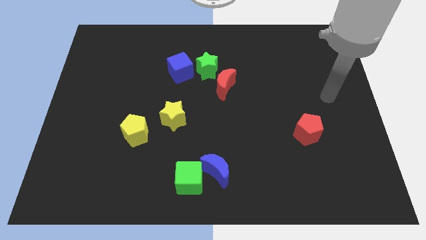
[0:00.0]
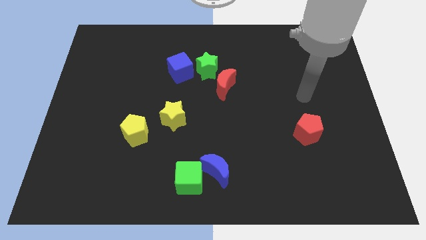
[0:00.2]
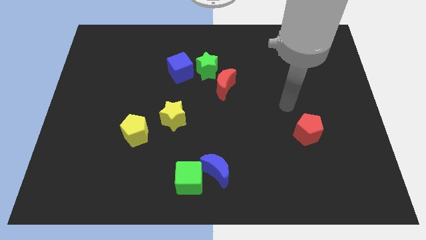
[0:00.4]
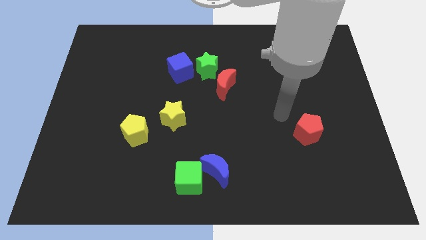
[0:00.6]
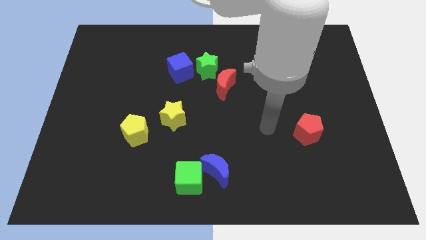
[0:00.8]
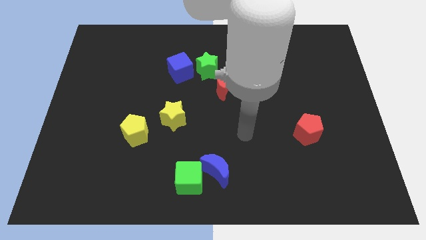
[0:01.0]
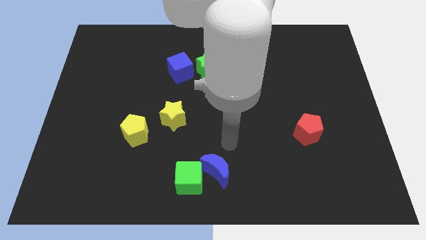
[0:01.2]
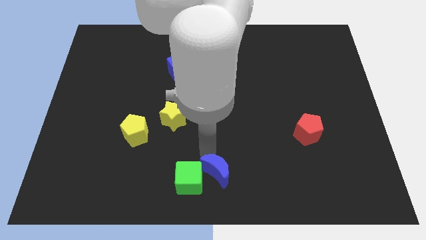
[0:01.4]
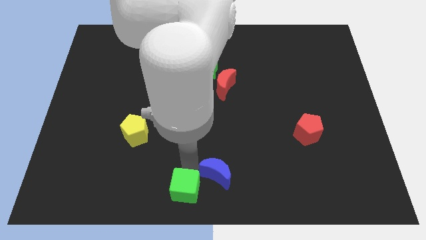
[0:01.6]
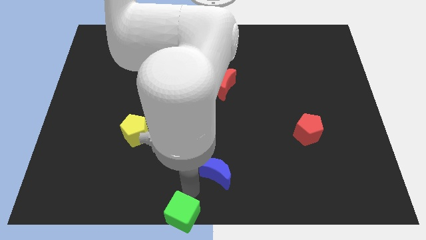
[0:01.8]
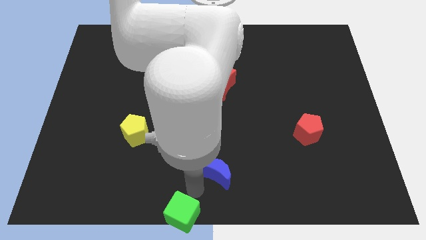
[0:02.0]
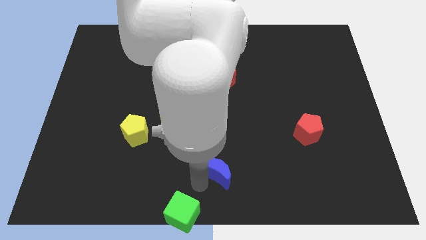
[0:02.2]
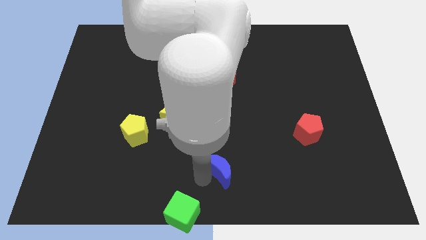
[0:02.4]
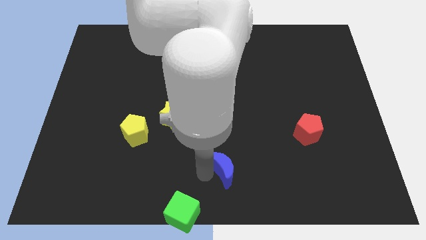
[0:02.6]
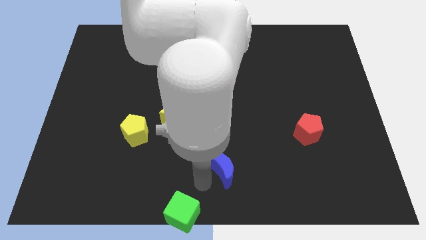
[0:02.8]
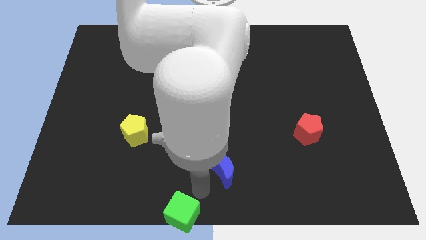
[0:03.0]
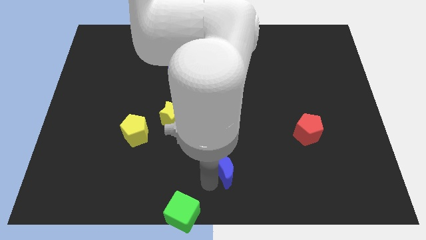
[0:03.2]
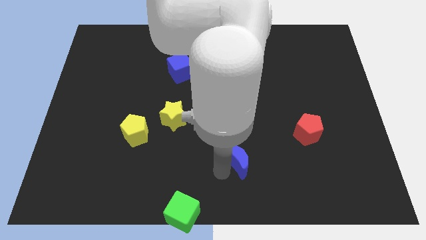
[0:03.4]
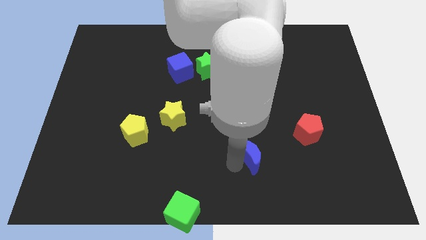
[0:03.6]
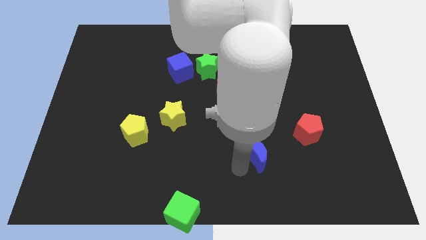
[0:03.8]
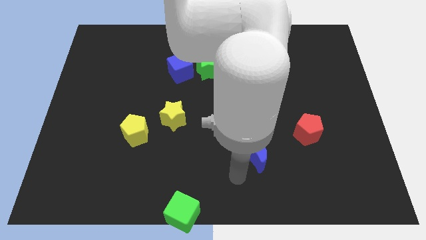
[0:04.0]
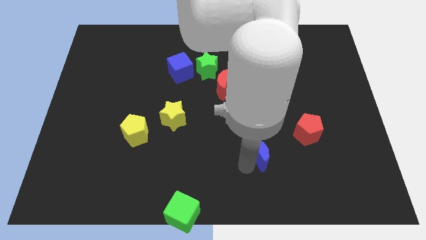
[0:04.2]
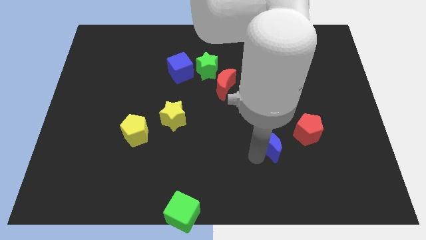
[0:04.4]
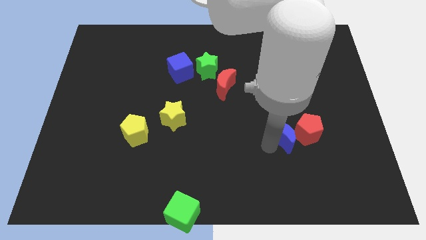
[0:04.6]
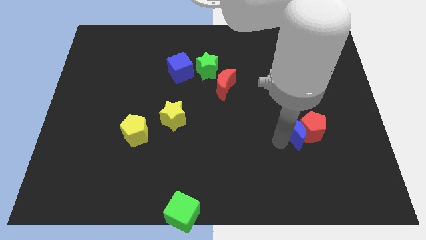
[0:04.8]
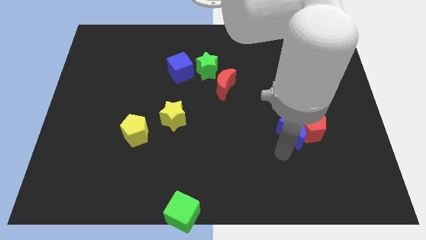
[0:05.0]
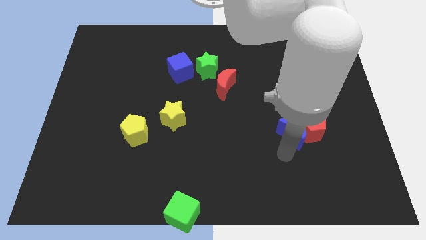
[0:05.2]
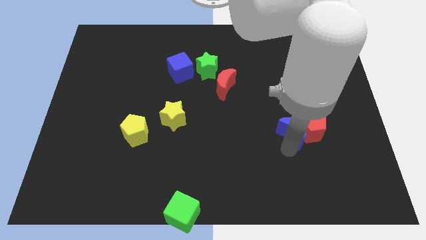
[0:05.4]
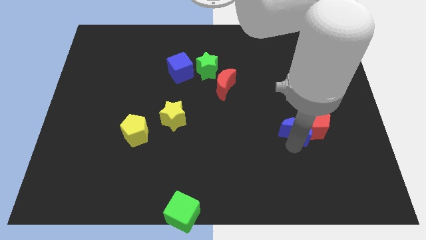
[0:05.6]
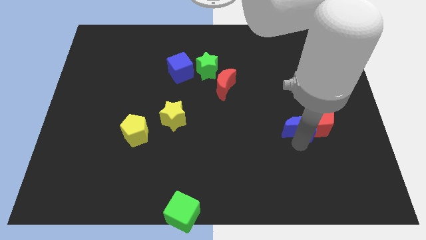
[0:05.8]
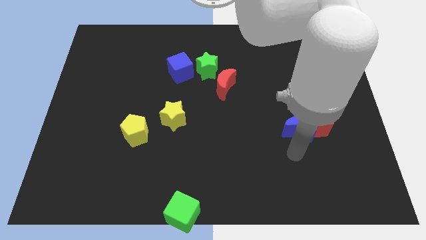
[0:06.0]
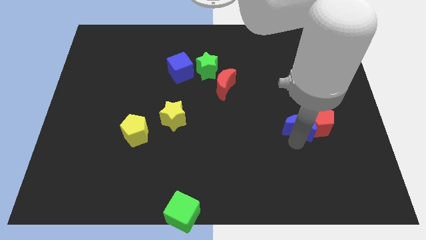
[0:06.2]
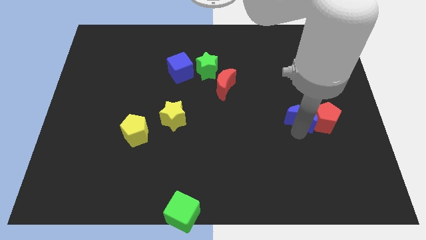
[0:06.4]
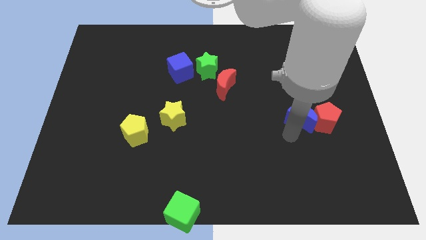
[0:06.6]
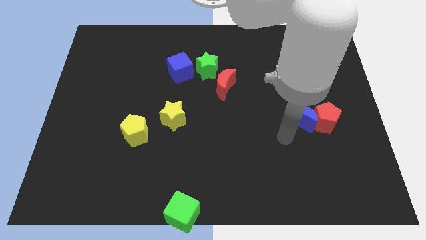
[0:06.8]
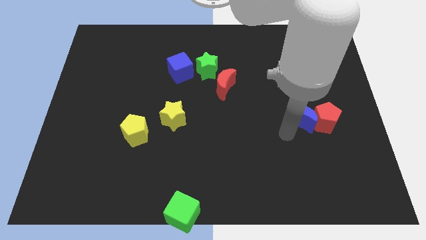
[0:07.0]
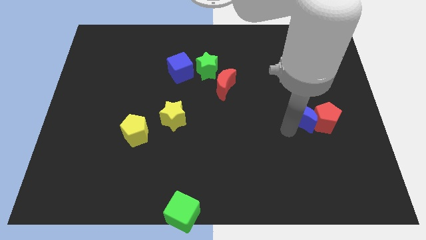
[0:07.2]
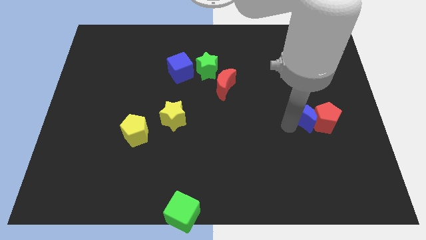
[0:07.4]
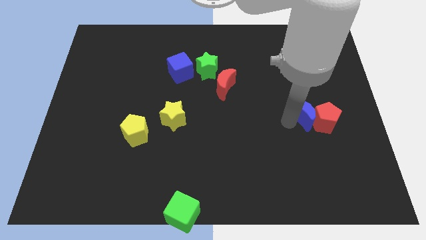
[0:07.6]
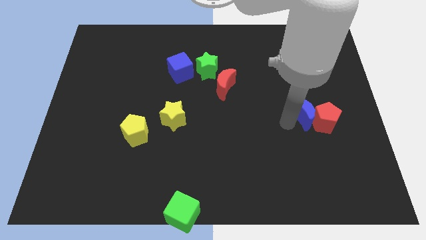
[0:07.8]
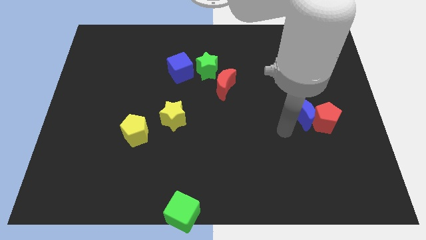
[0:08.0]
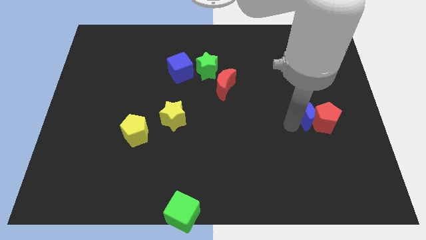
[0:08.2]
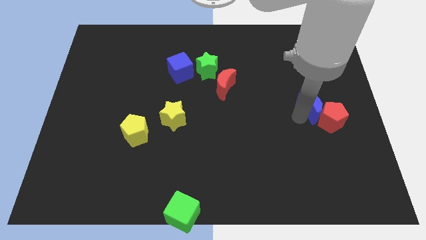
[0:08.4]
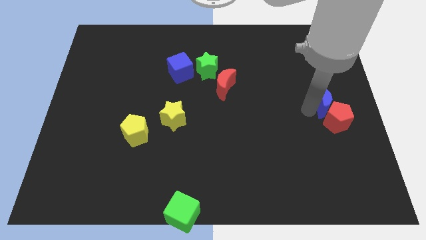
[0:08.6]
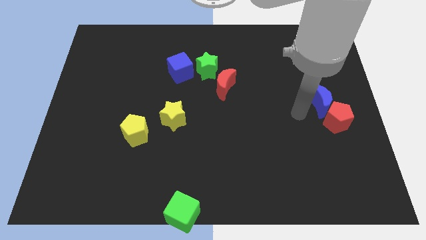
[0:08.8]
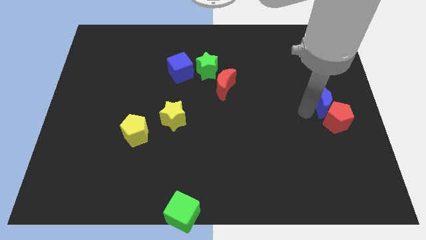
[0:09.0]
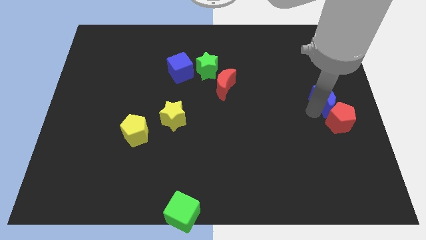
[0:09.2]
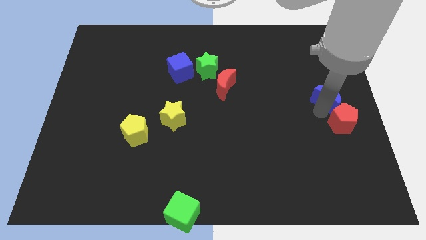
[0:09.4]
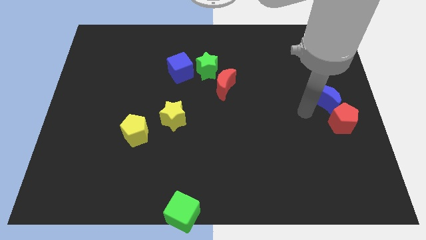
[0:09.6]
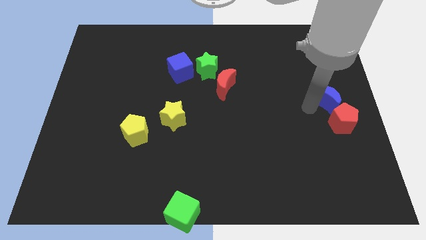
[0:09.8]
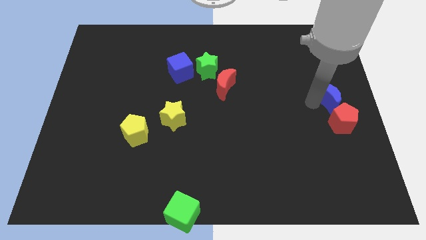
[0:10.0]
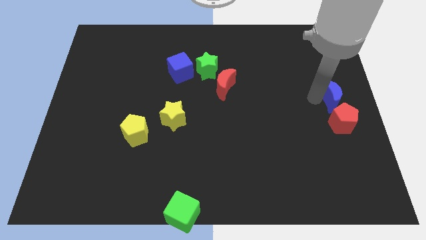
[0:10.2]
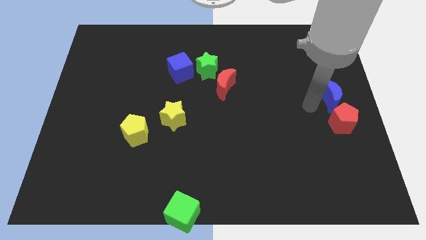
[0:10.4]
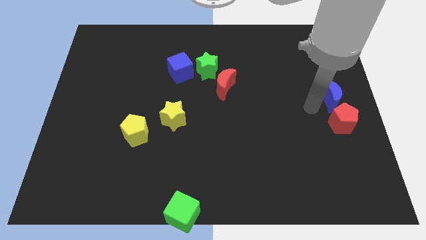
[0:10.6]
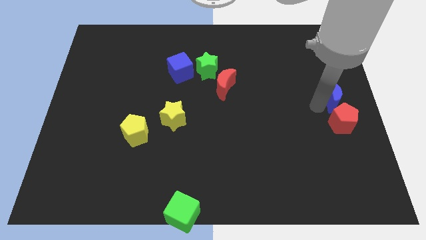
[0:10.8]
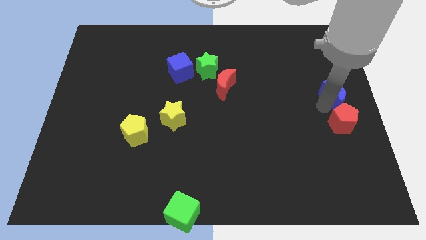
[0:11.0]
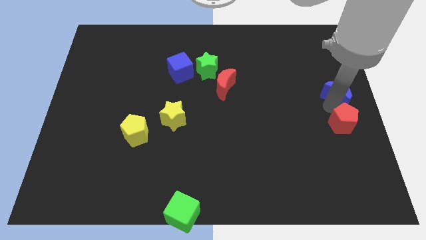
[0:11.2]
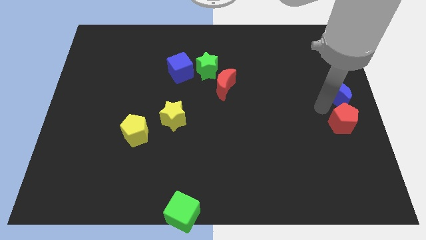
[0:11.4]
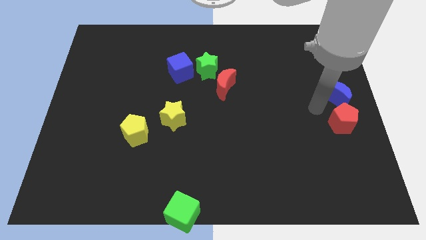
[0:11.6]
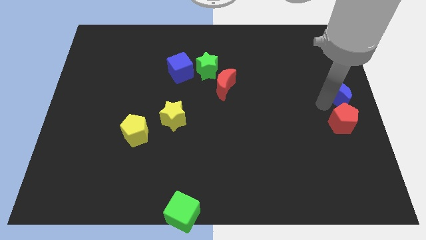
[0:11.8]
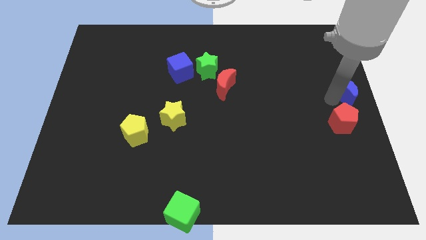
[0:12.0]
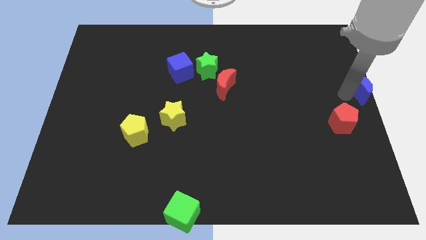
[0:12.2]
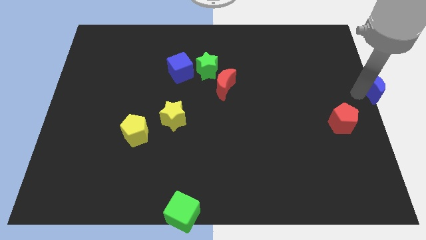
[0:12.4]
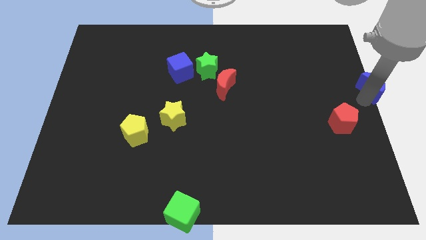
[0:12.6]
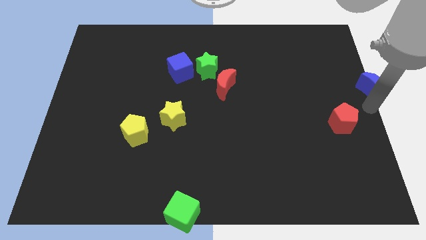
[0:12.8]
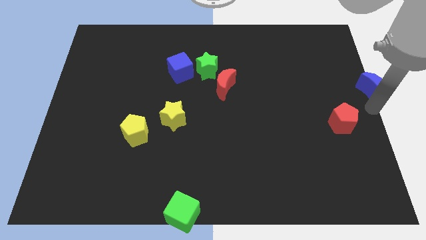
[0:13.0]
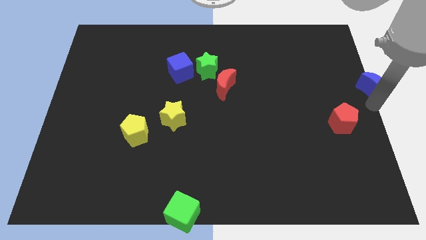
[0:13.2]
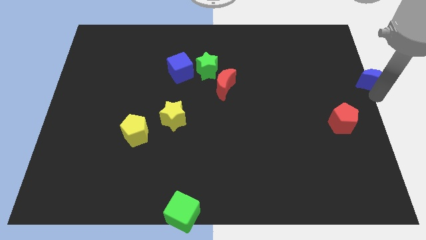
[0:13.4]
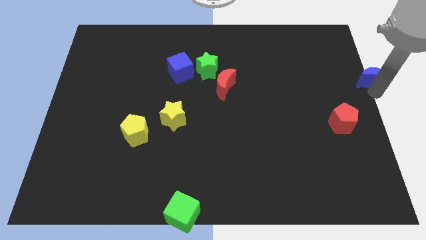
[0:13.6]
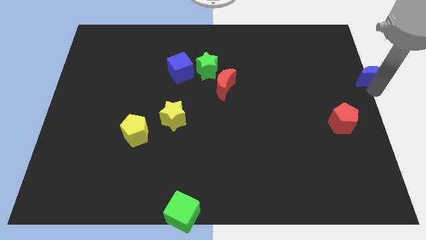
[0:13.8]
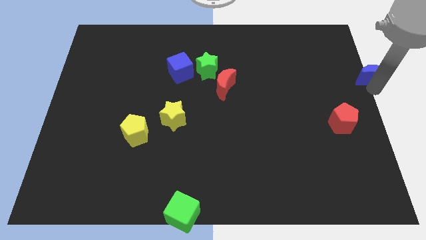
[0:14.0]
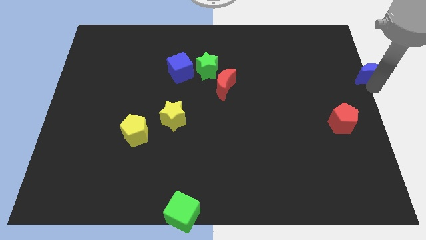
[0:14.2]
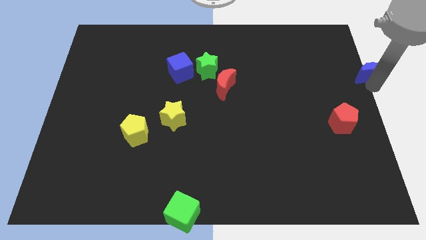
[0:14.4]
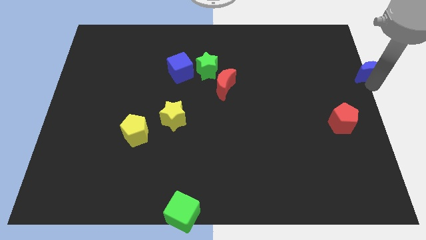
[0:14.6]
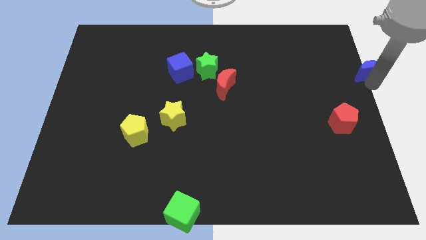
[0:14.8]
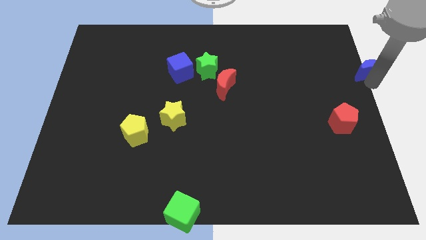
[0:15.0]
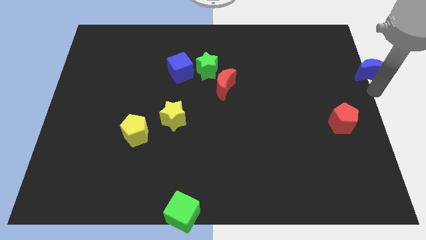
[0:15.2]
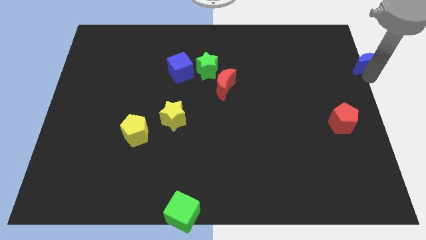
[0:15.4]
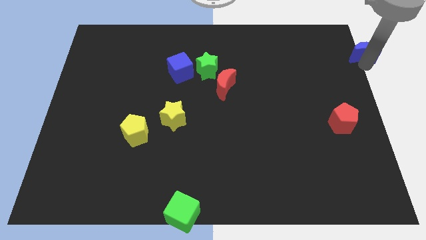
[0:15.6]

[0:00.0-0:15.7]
put the blue moon to the upper right corner
